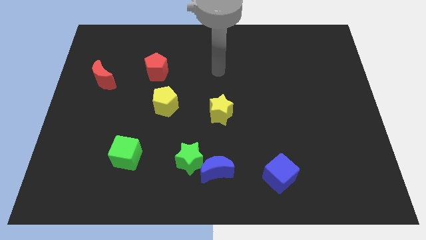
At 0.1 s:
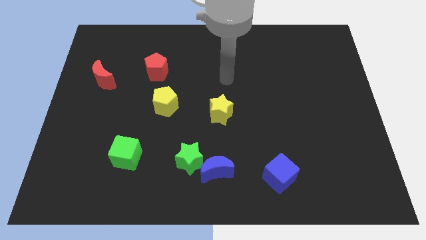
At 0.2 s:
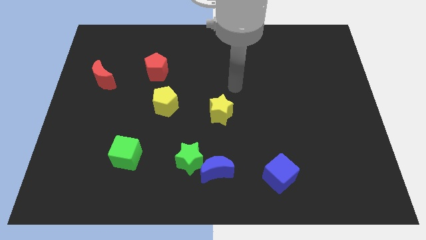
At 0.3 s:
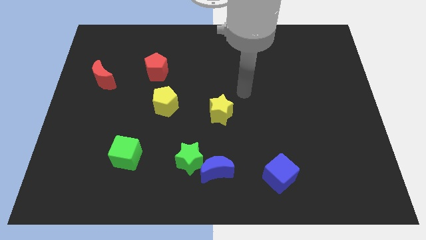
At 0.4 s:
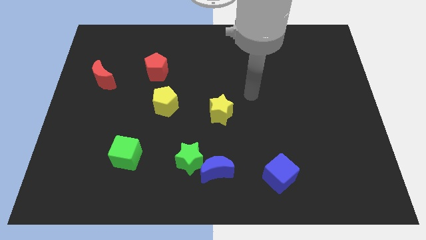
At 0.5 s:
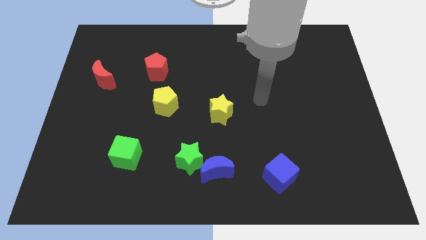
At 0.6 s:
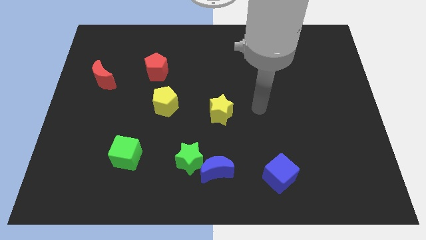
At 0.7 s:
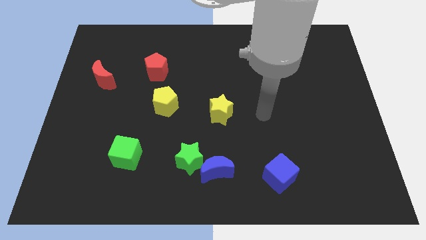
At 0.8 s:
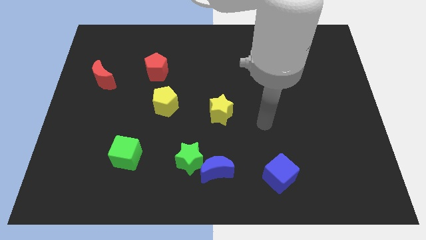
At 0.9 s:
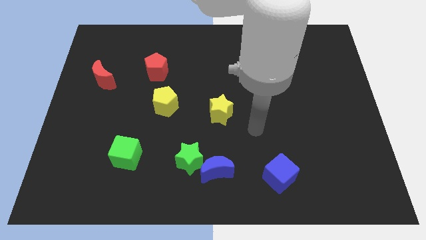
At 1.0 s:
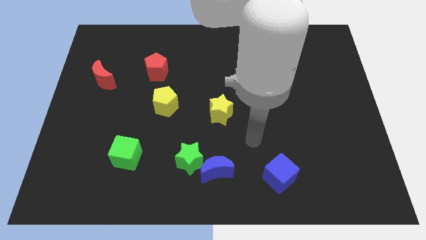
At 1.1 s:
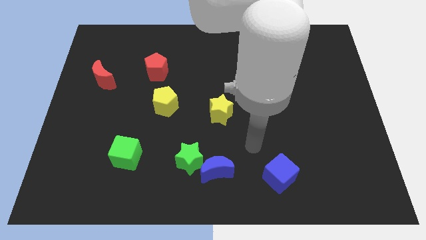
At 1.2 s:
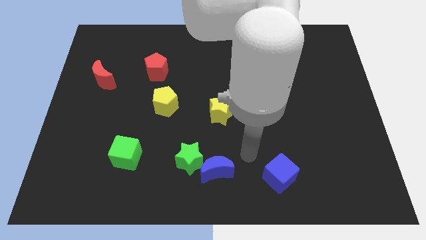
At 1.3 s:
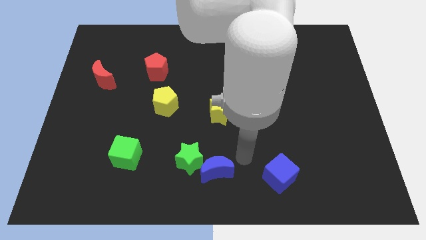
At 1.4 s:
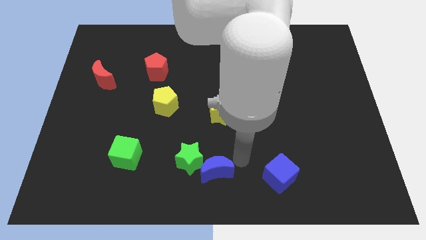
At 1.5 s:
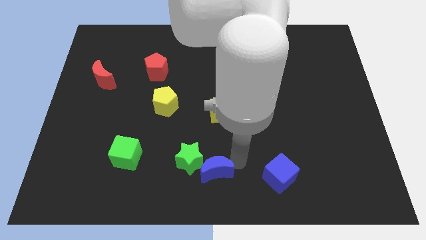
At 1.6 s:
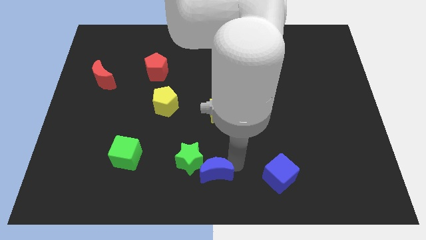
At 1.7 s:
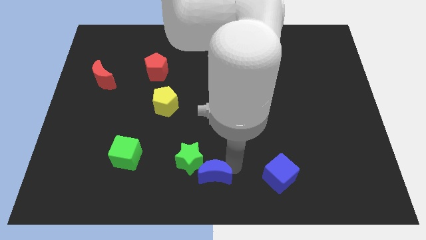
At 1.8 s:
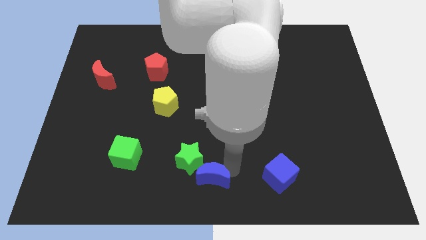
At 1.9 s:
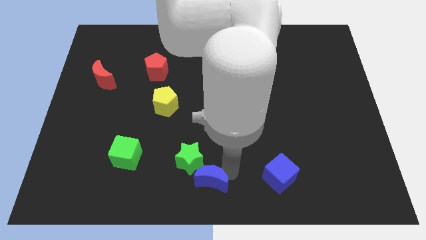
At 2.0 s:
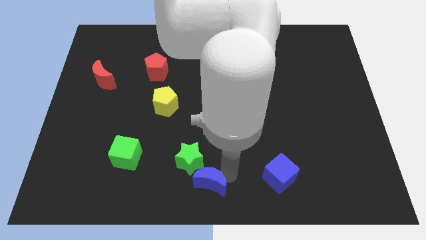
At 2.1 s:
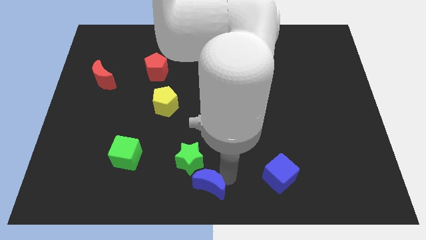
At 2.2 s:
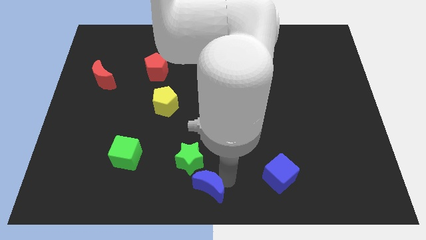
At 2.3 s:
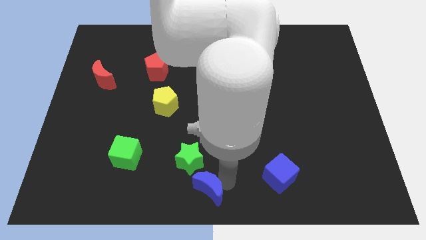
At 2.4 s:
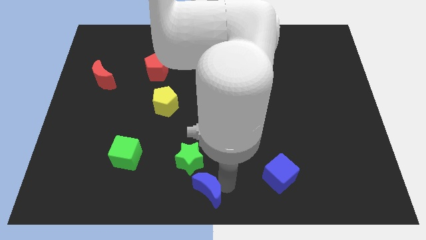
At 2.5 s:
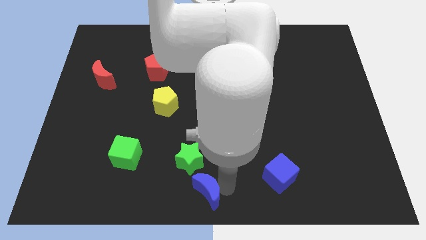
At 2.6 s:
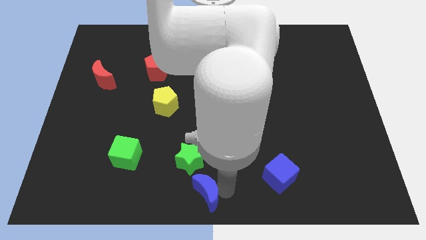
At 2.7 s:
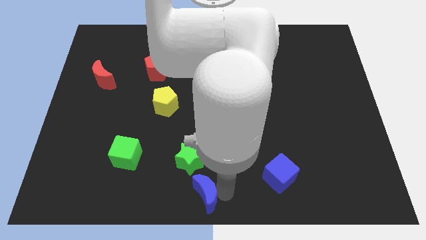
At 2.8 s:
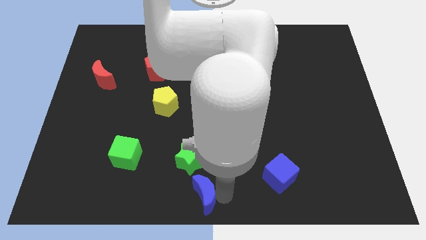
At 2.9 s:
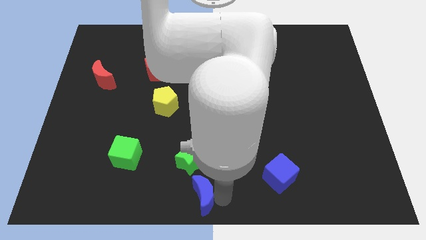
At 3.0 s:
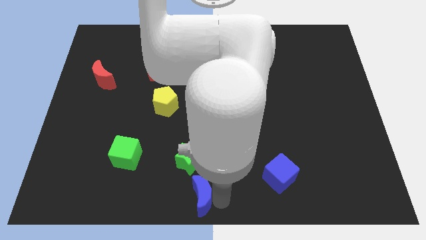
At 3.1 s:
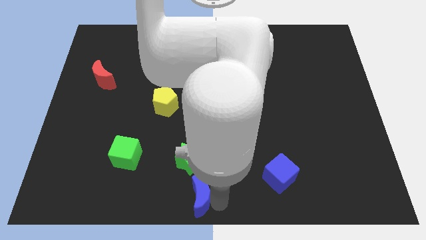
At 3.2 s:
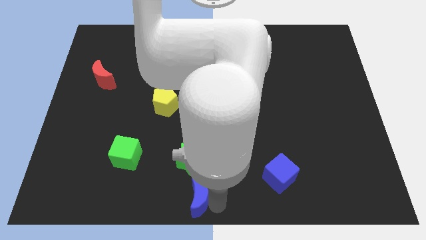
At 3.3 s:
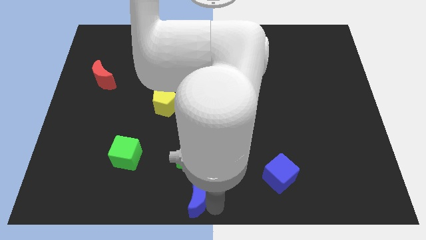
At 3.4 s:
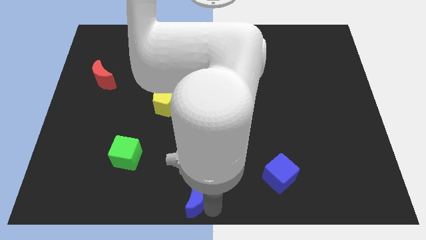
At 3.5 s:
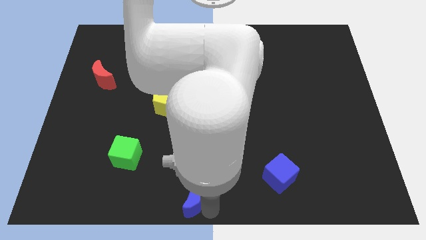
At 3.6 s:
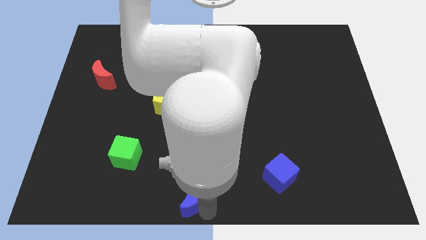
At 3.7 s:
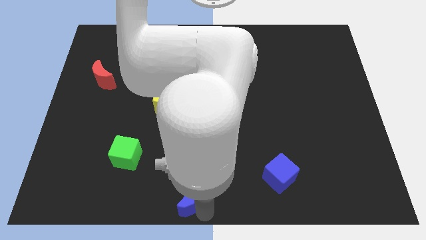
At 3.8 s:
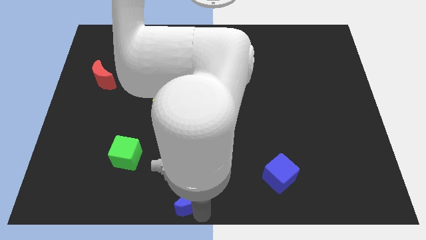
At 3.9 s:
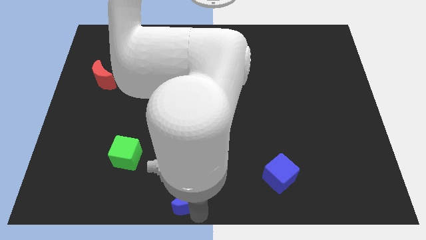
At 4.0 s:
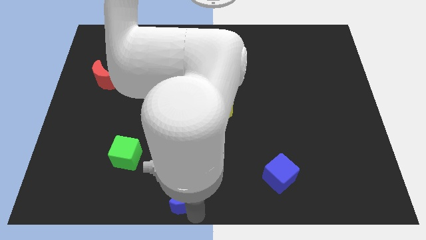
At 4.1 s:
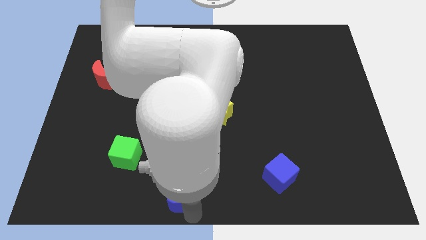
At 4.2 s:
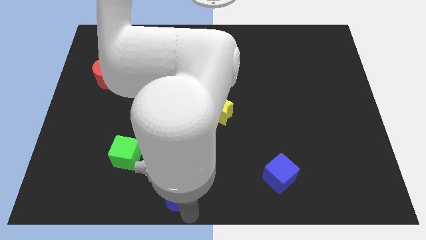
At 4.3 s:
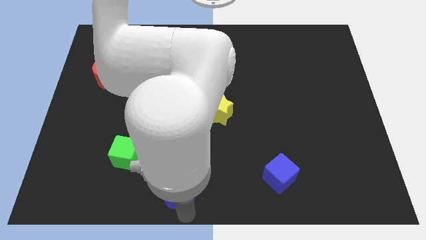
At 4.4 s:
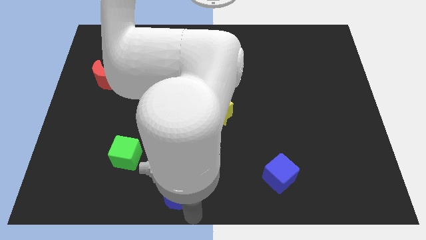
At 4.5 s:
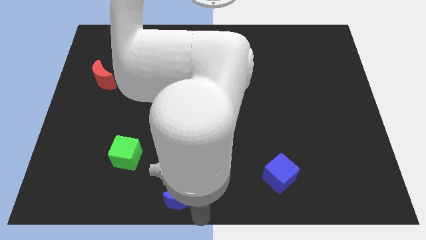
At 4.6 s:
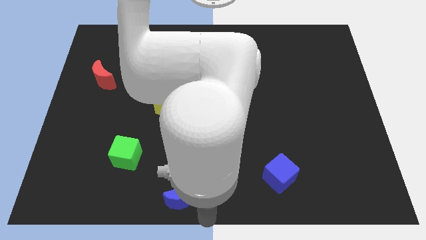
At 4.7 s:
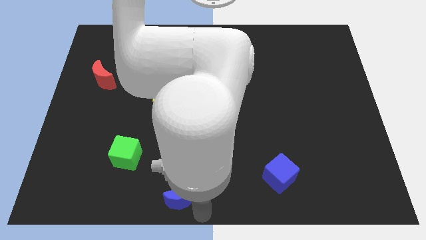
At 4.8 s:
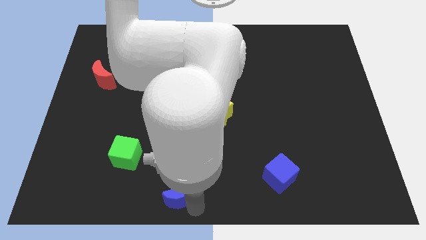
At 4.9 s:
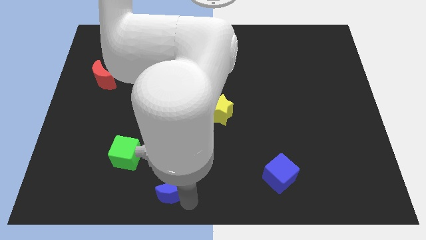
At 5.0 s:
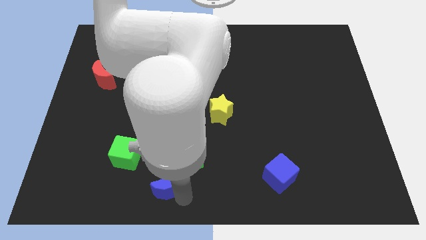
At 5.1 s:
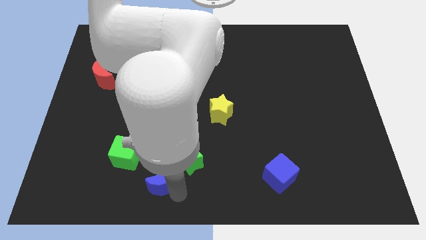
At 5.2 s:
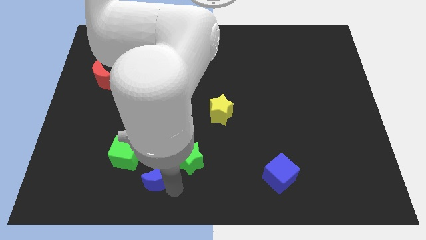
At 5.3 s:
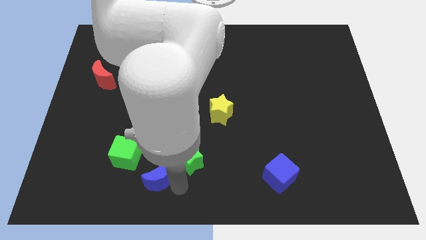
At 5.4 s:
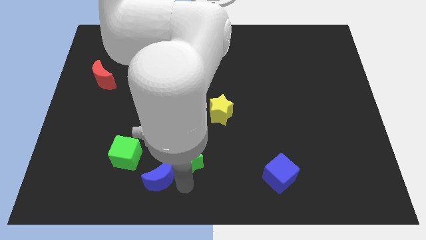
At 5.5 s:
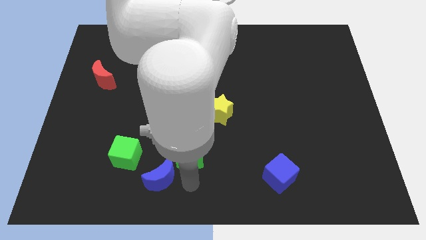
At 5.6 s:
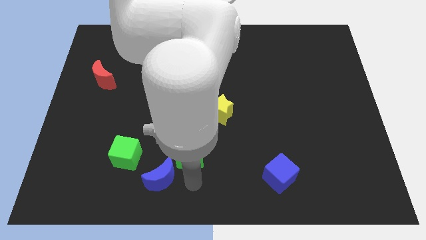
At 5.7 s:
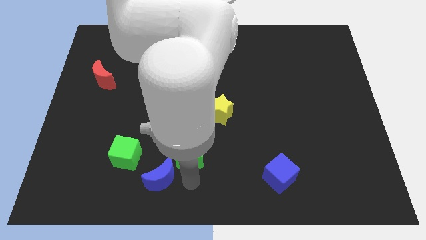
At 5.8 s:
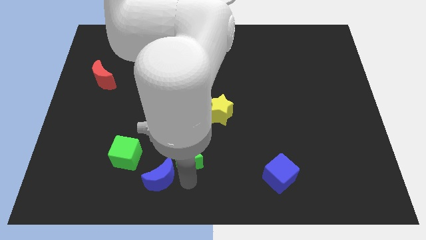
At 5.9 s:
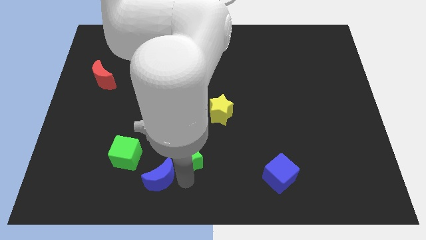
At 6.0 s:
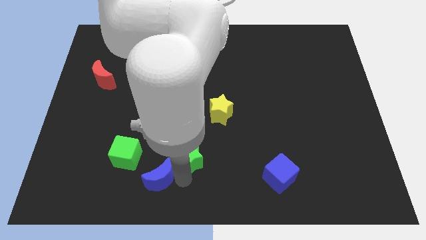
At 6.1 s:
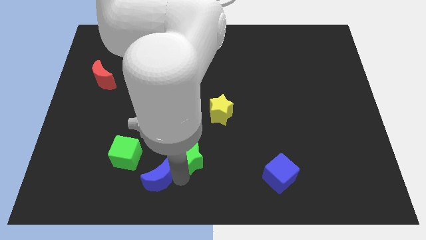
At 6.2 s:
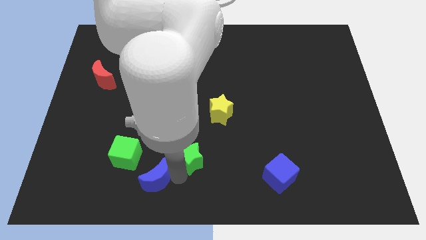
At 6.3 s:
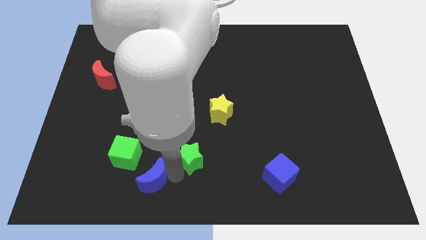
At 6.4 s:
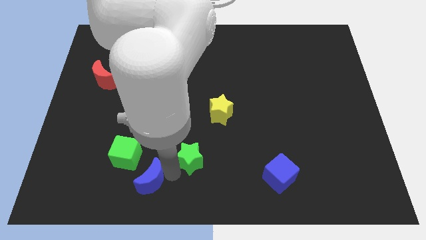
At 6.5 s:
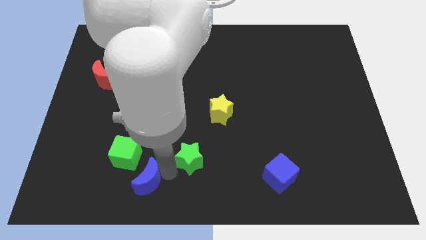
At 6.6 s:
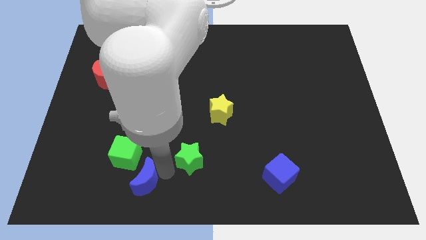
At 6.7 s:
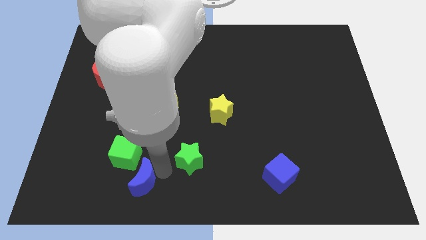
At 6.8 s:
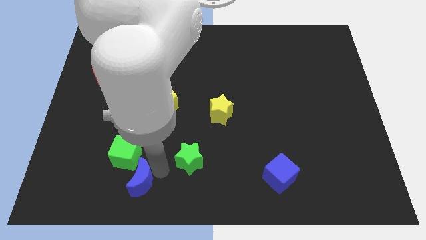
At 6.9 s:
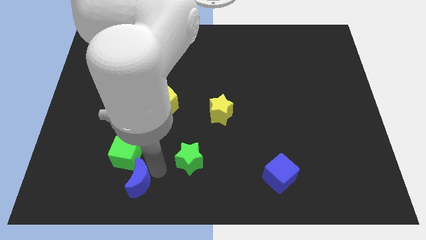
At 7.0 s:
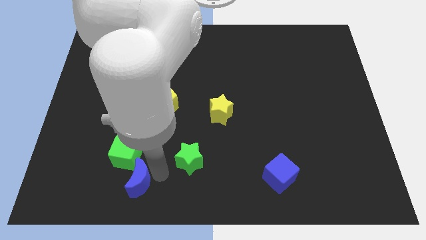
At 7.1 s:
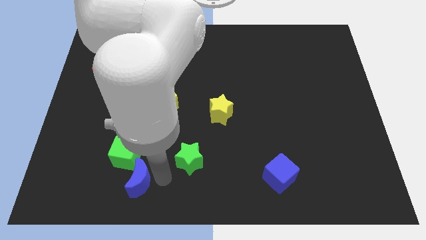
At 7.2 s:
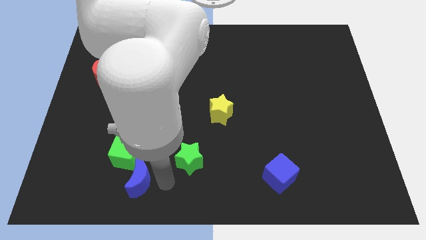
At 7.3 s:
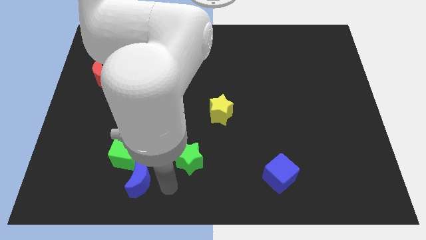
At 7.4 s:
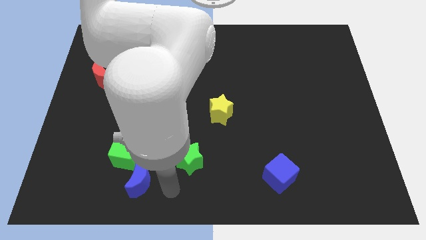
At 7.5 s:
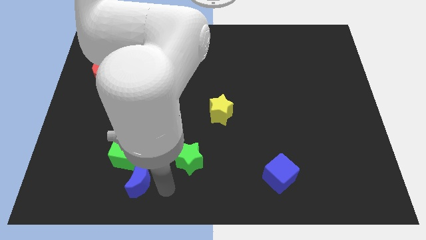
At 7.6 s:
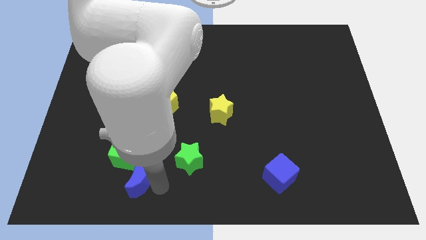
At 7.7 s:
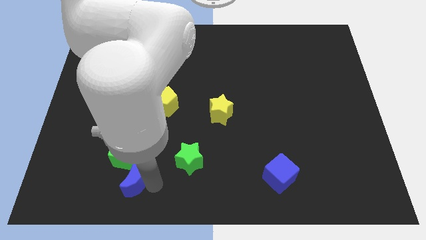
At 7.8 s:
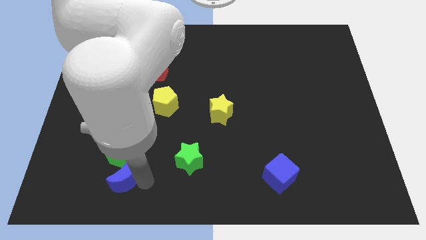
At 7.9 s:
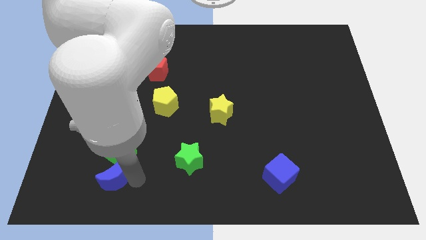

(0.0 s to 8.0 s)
push the blue moon diagonally down and to the left of the green cube
